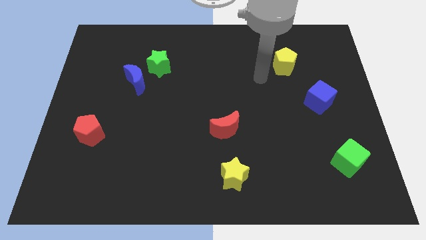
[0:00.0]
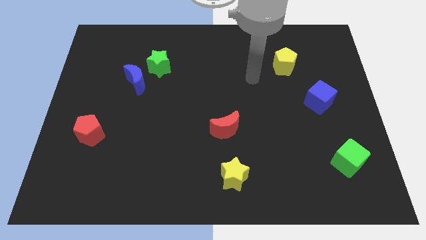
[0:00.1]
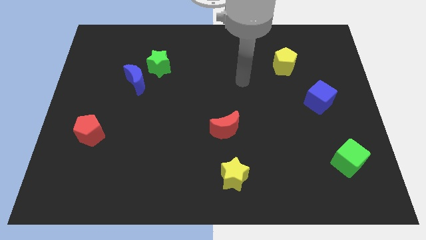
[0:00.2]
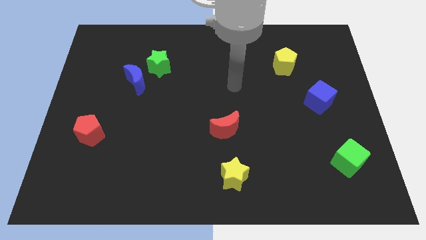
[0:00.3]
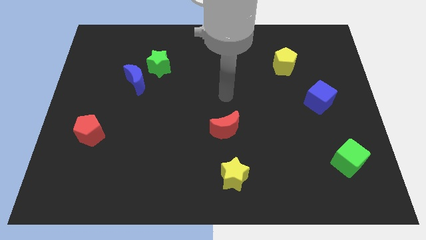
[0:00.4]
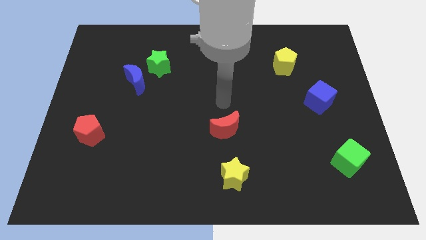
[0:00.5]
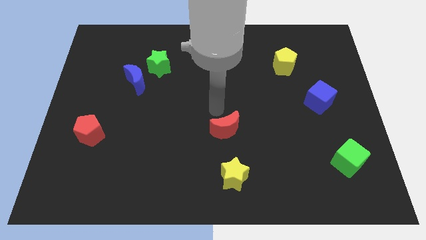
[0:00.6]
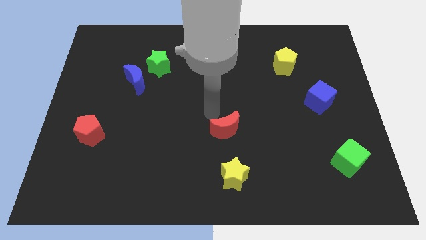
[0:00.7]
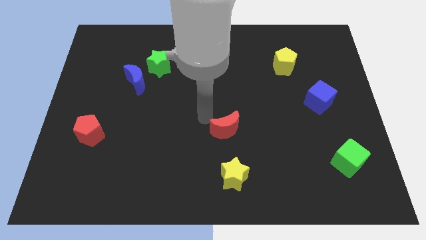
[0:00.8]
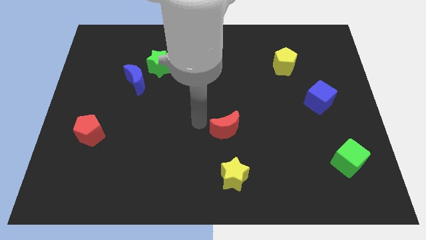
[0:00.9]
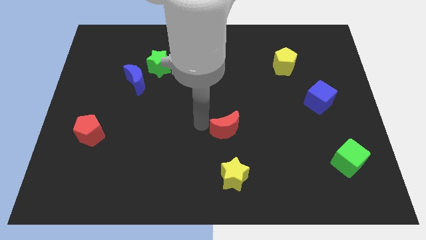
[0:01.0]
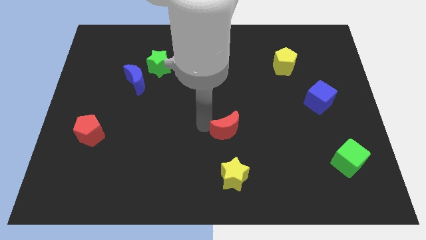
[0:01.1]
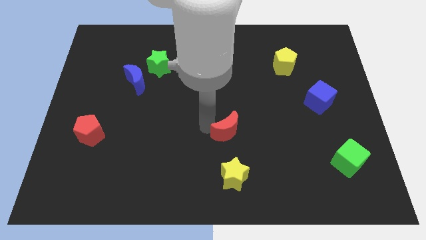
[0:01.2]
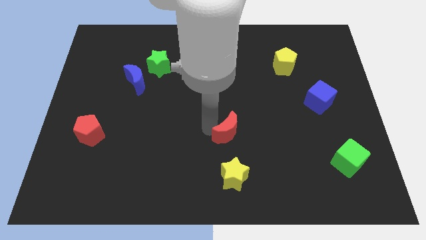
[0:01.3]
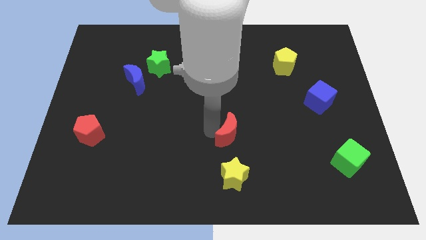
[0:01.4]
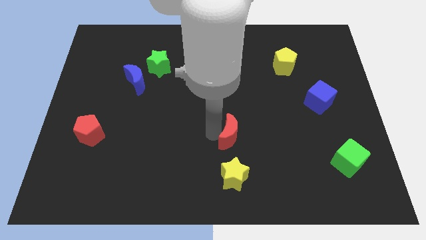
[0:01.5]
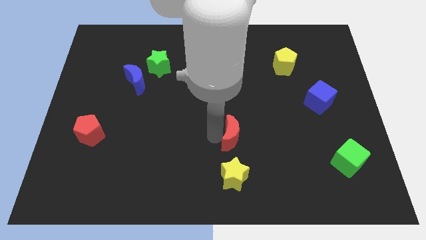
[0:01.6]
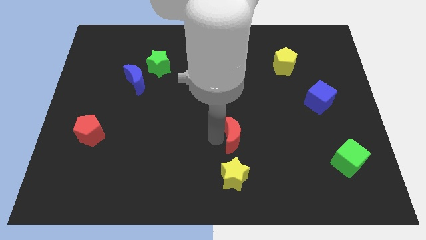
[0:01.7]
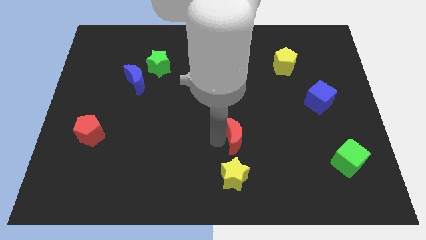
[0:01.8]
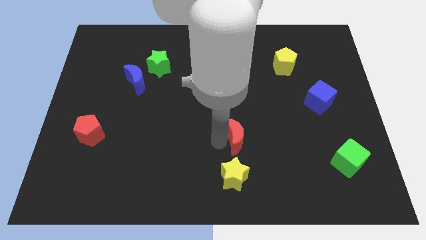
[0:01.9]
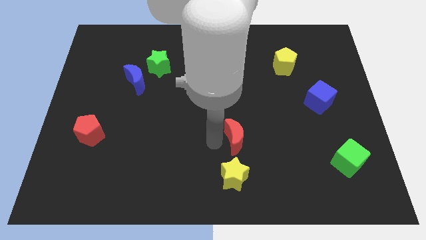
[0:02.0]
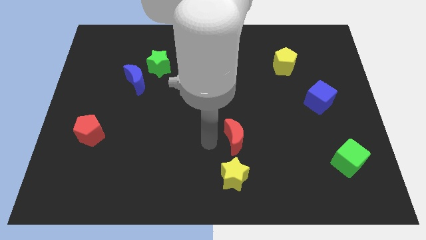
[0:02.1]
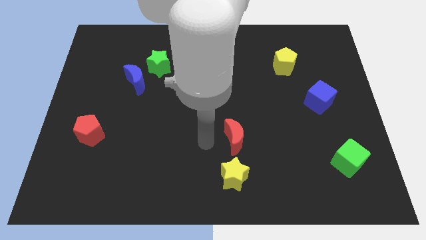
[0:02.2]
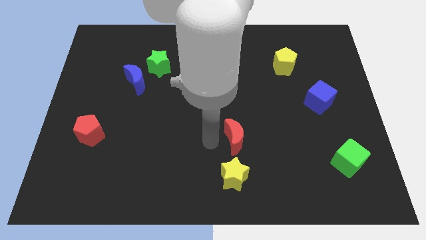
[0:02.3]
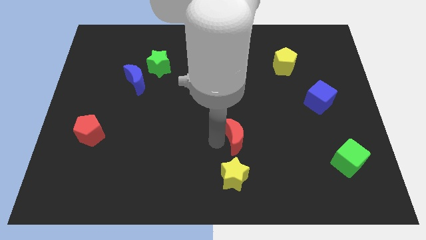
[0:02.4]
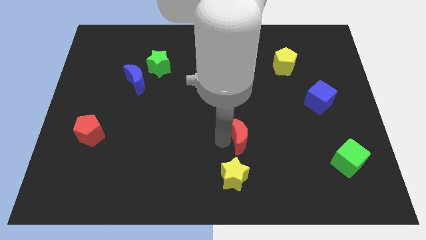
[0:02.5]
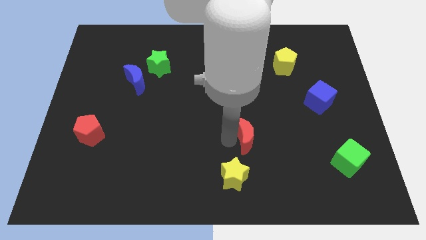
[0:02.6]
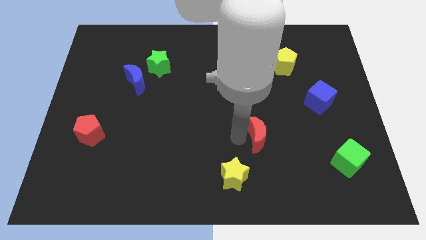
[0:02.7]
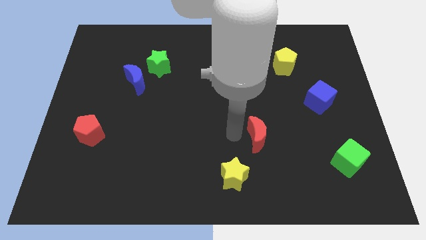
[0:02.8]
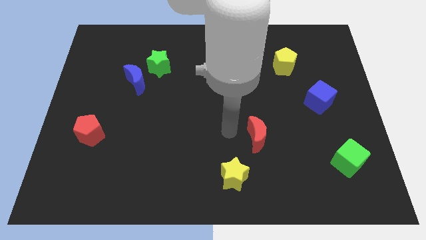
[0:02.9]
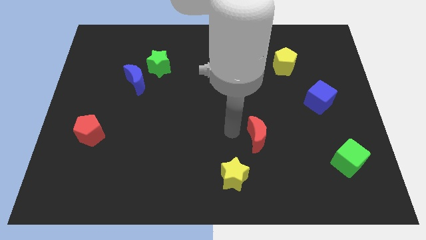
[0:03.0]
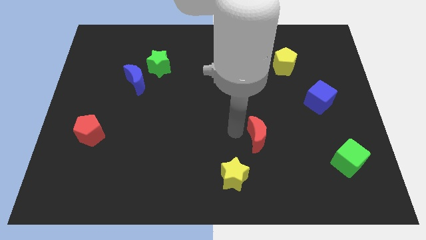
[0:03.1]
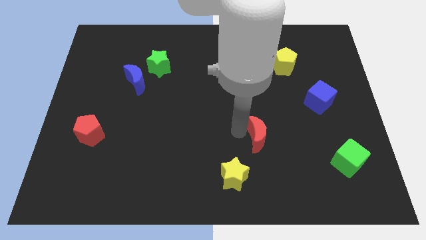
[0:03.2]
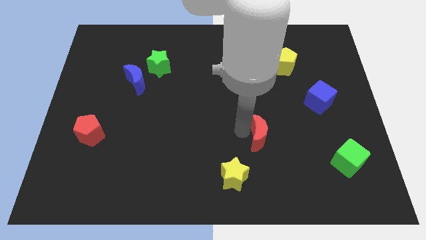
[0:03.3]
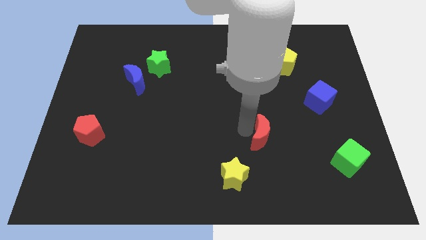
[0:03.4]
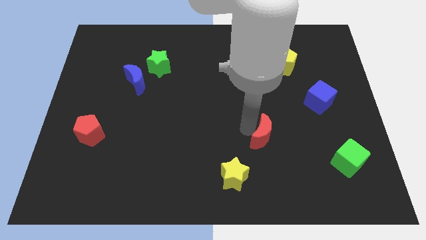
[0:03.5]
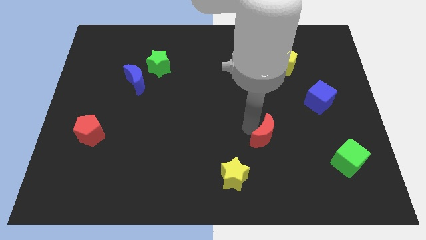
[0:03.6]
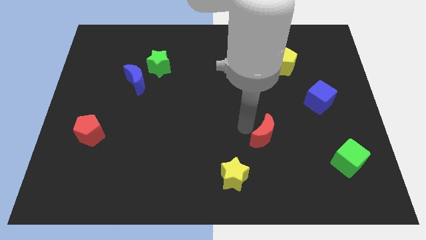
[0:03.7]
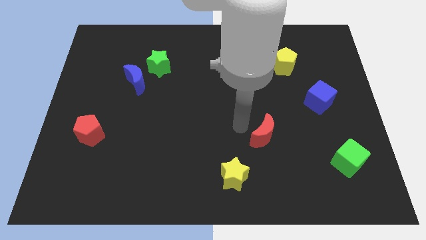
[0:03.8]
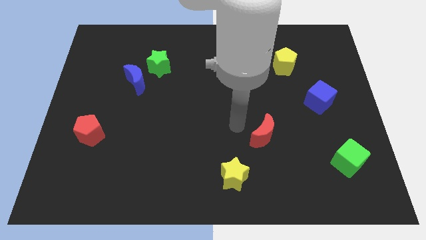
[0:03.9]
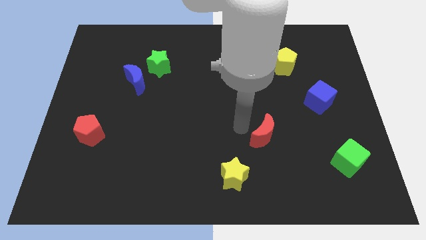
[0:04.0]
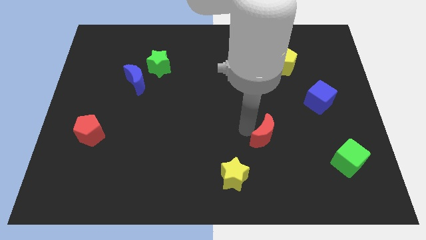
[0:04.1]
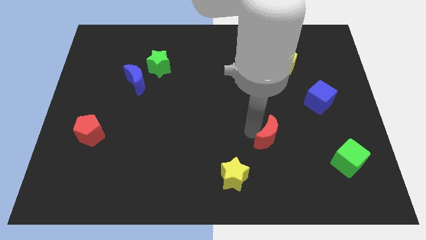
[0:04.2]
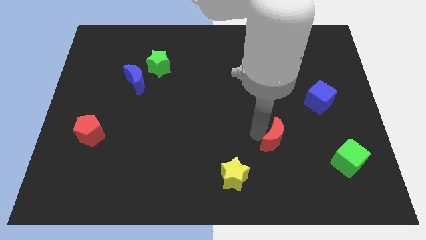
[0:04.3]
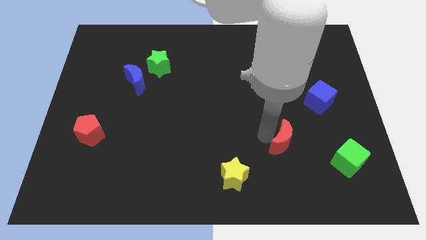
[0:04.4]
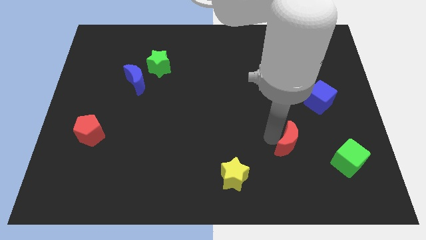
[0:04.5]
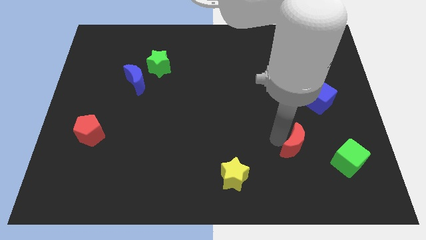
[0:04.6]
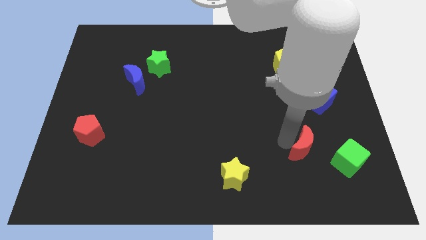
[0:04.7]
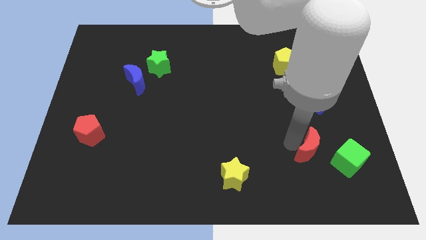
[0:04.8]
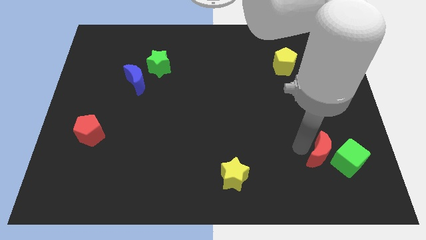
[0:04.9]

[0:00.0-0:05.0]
put the red moon towards the green cube

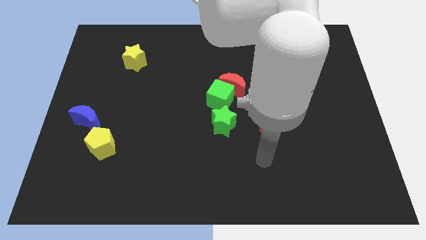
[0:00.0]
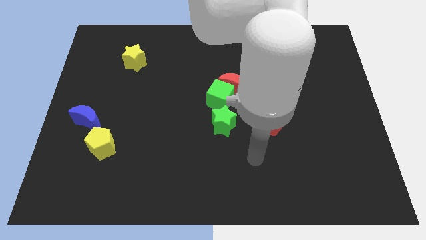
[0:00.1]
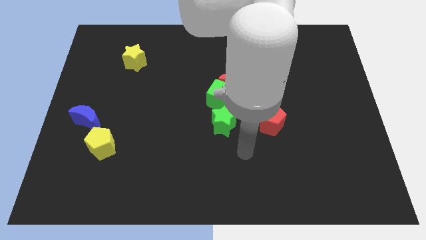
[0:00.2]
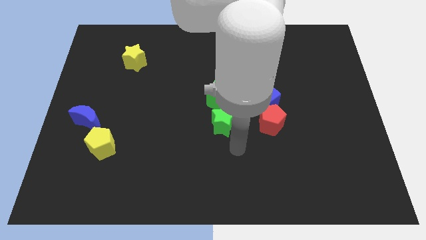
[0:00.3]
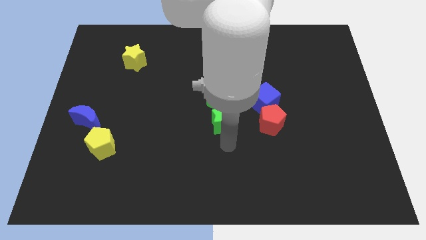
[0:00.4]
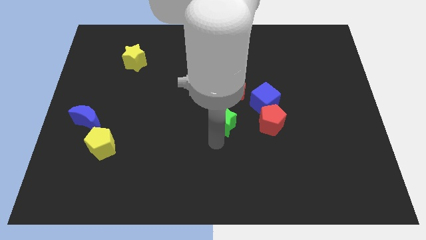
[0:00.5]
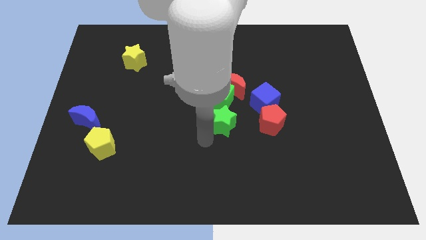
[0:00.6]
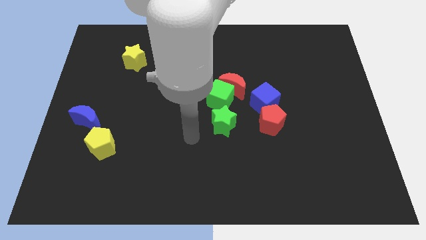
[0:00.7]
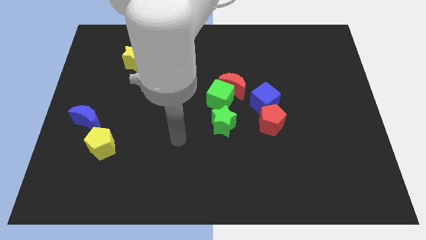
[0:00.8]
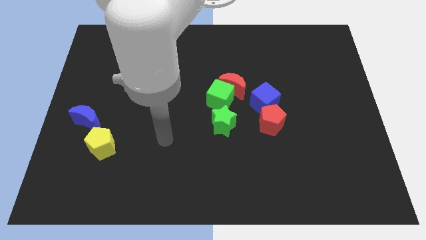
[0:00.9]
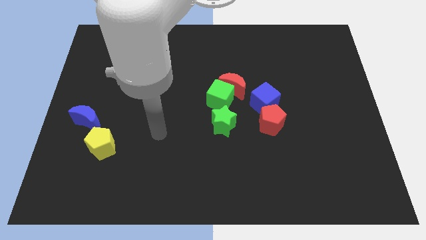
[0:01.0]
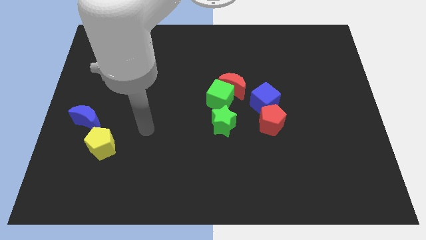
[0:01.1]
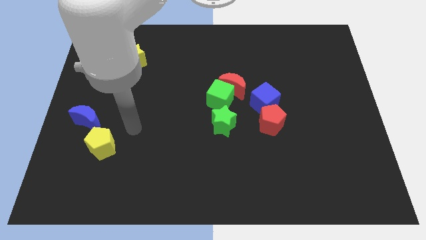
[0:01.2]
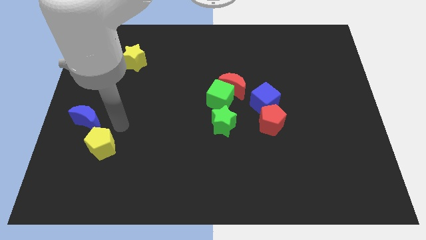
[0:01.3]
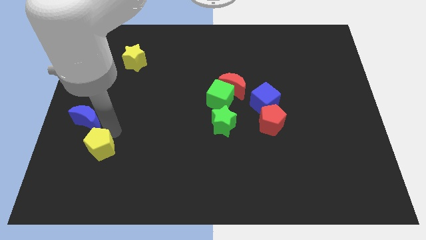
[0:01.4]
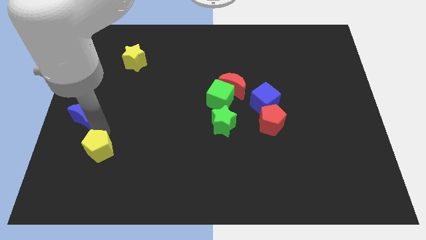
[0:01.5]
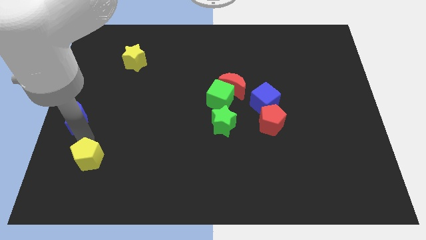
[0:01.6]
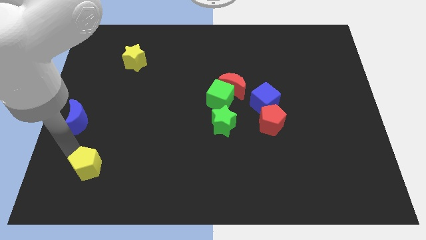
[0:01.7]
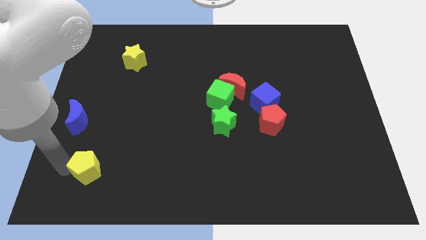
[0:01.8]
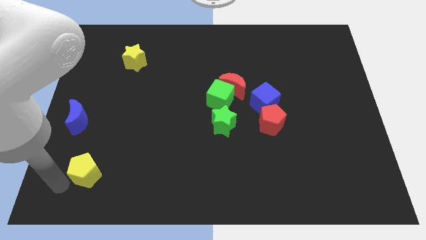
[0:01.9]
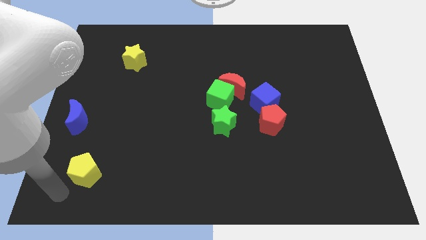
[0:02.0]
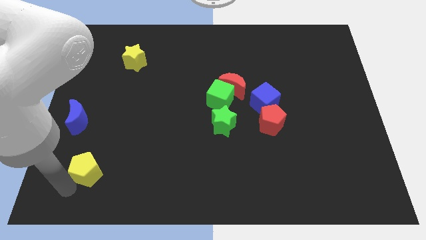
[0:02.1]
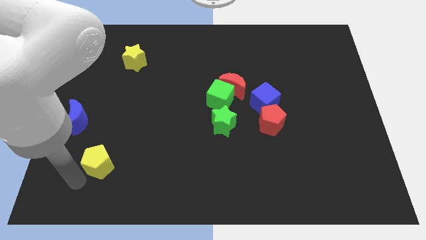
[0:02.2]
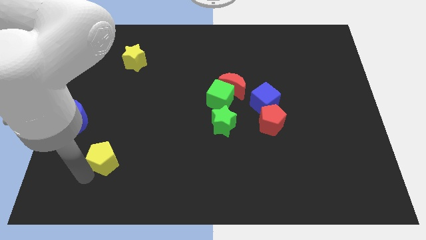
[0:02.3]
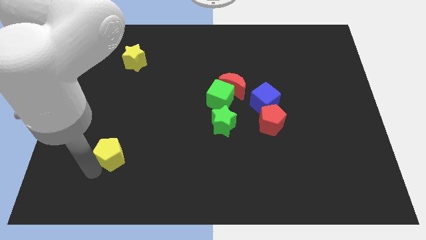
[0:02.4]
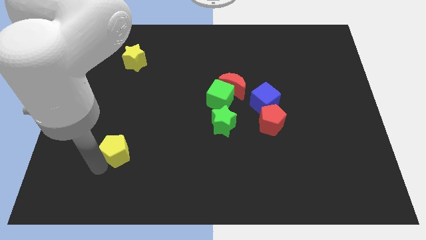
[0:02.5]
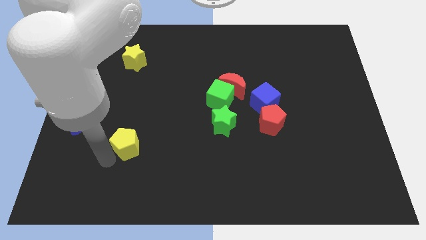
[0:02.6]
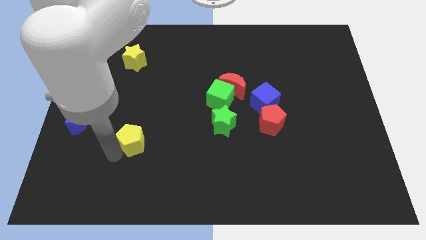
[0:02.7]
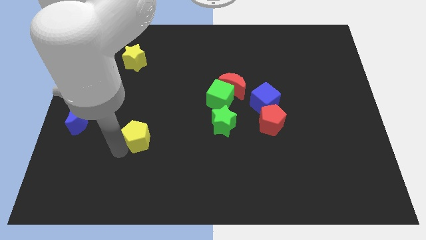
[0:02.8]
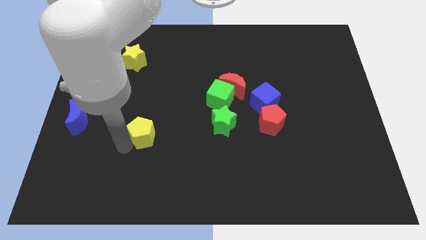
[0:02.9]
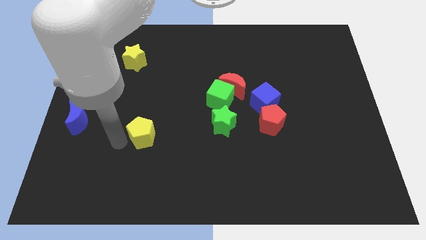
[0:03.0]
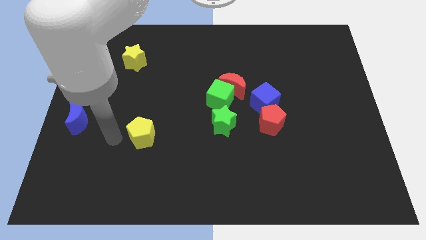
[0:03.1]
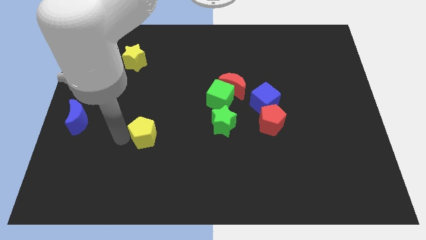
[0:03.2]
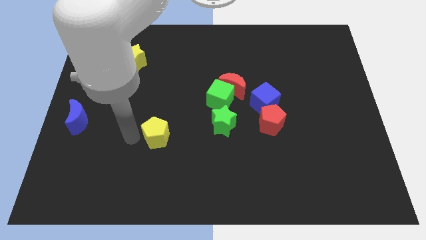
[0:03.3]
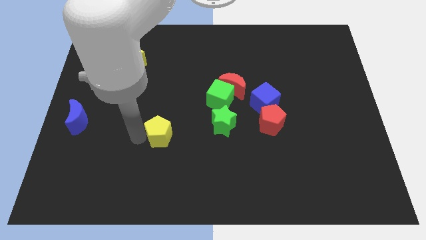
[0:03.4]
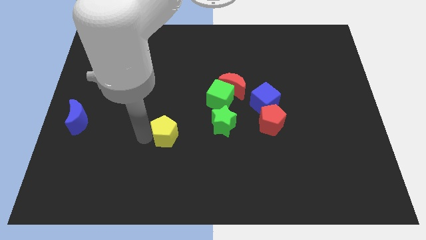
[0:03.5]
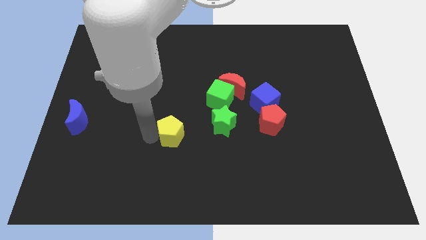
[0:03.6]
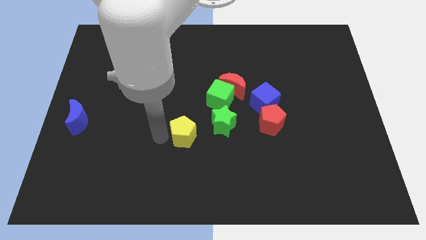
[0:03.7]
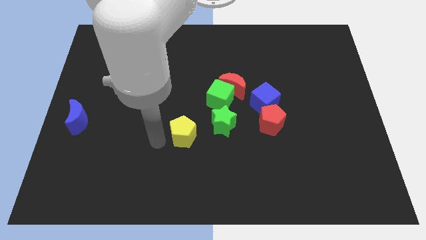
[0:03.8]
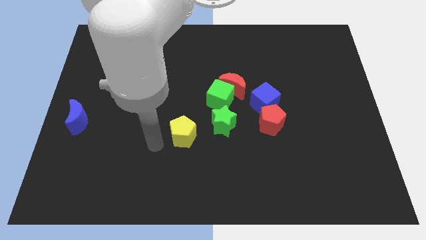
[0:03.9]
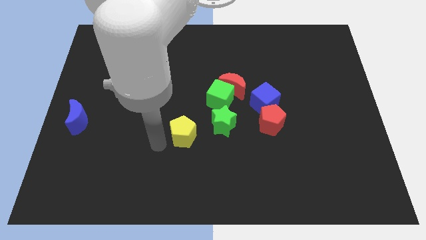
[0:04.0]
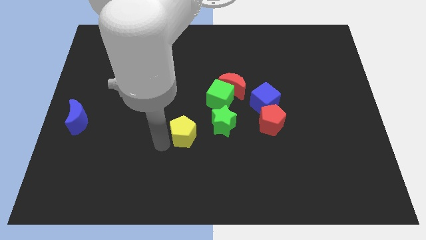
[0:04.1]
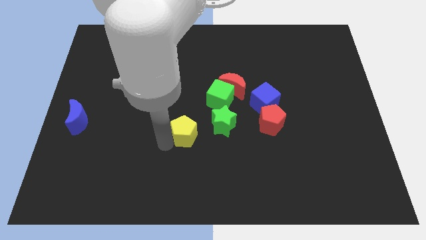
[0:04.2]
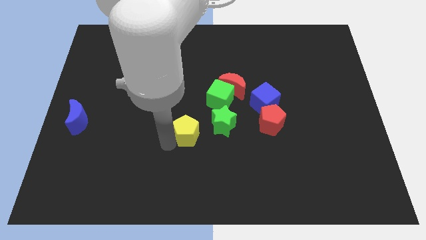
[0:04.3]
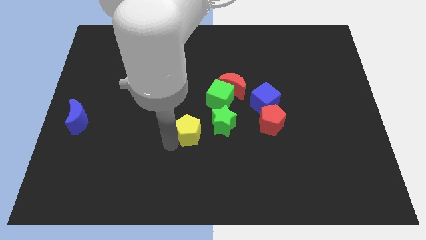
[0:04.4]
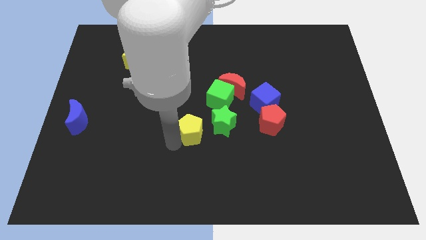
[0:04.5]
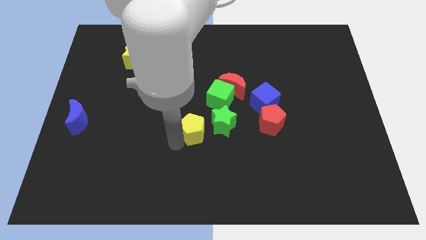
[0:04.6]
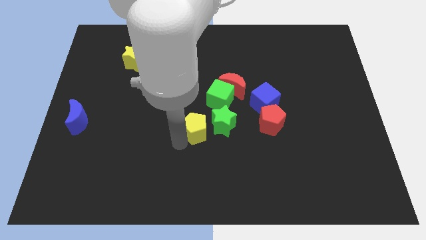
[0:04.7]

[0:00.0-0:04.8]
put the yellow pentagon next to the green star
